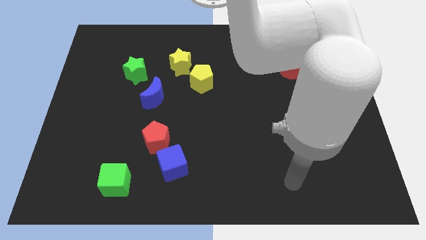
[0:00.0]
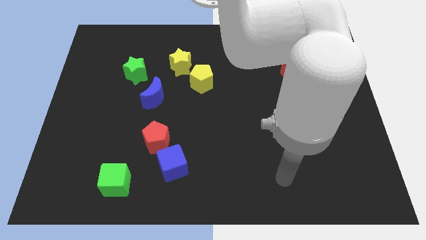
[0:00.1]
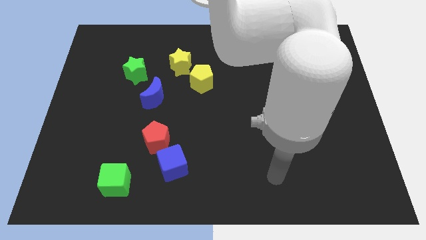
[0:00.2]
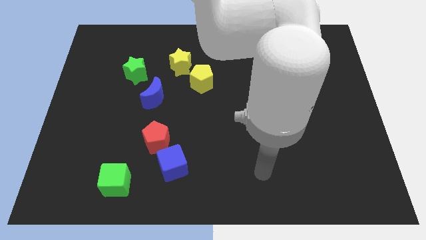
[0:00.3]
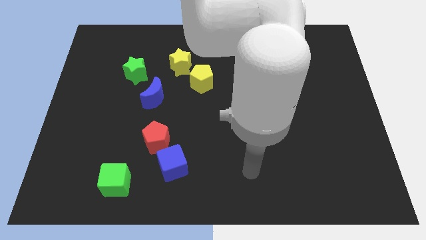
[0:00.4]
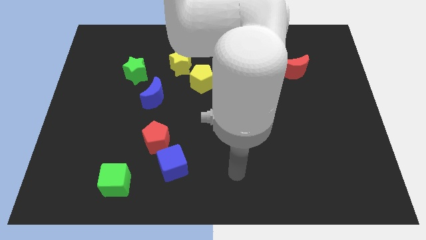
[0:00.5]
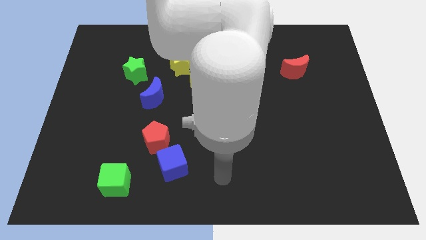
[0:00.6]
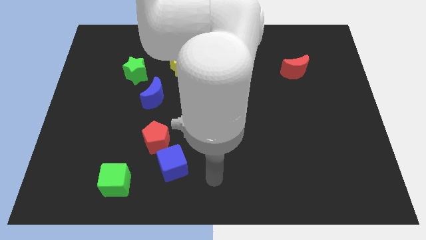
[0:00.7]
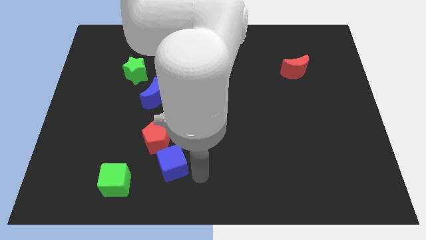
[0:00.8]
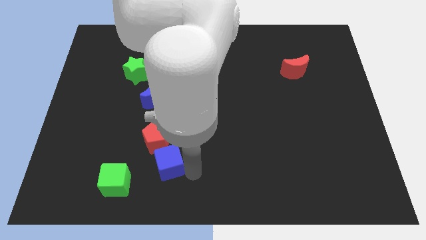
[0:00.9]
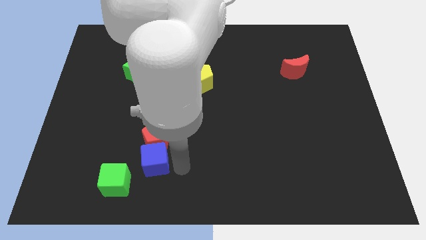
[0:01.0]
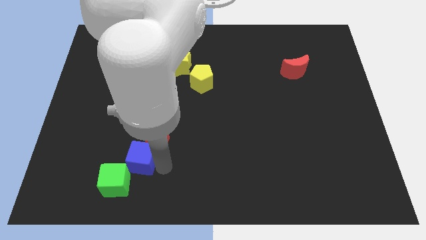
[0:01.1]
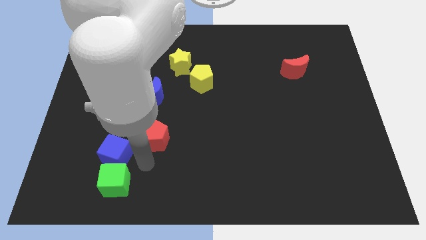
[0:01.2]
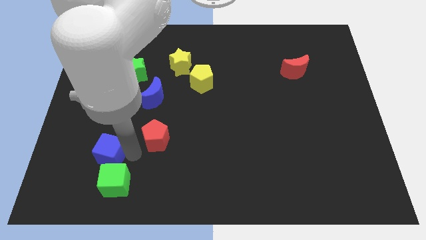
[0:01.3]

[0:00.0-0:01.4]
separate the red pentagon from the blue cube

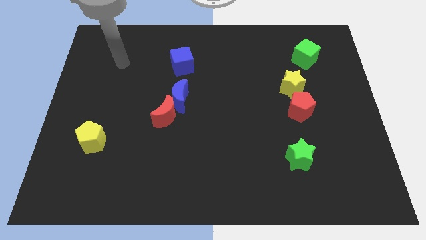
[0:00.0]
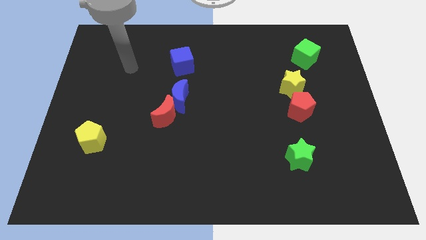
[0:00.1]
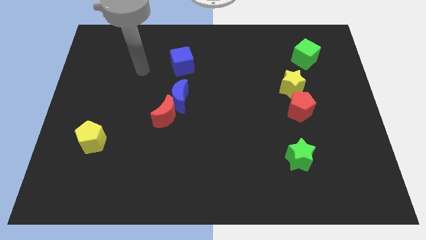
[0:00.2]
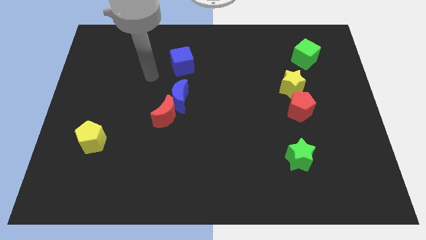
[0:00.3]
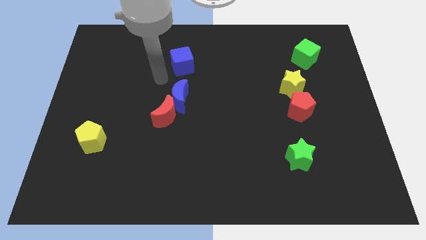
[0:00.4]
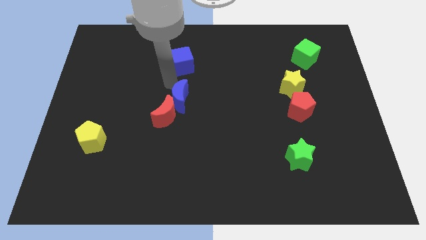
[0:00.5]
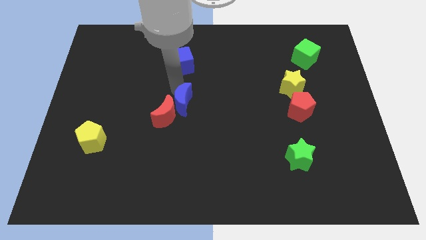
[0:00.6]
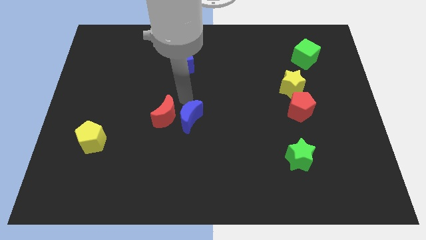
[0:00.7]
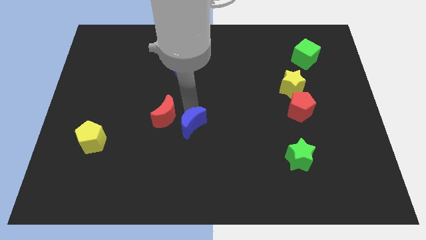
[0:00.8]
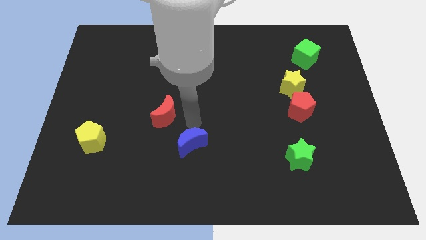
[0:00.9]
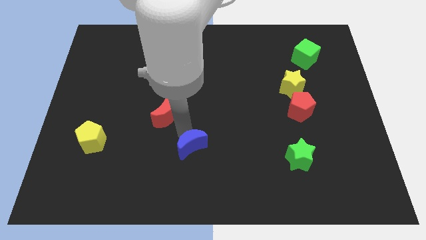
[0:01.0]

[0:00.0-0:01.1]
separate the red moon from the blue moon

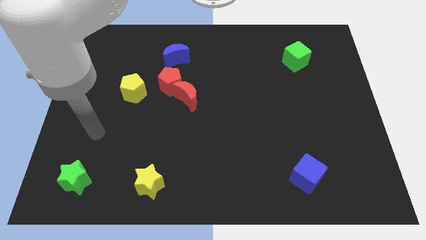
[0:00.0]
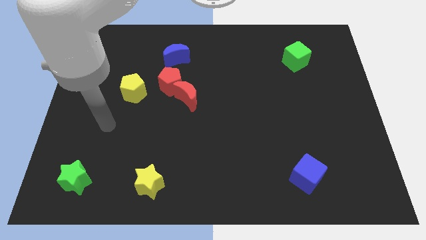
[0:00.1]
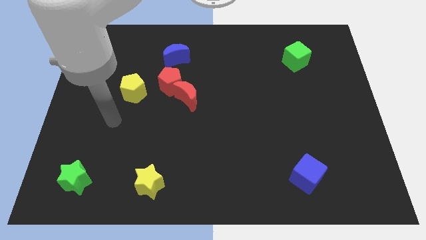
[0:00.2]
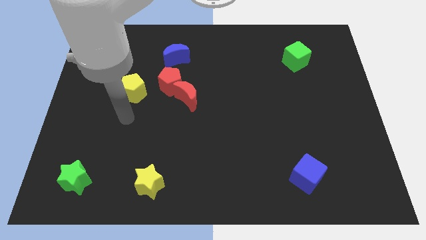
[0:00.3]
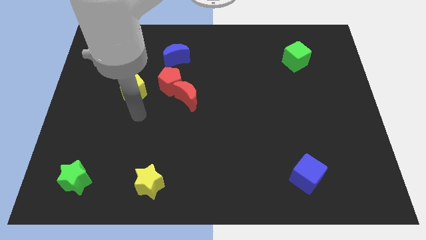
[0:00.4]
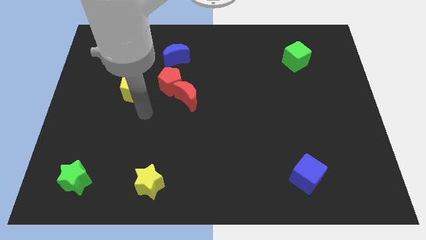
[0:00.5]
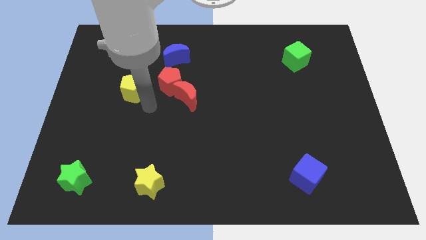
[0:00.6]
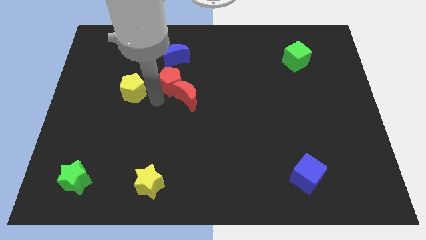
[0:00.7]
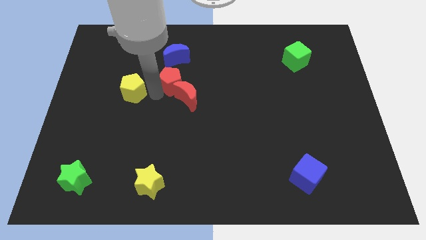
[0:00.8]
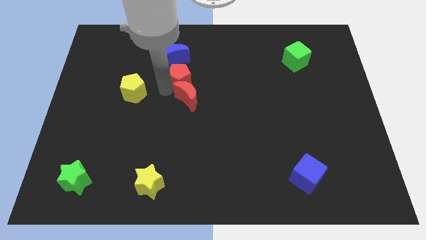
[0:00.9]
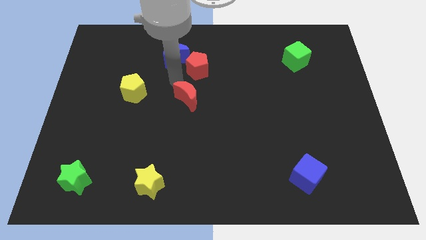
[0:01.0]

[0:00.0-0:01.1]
move the red moon away from the red pentagon

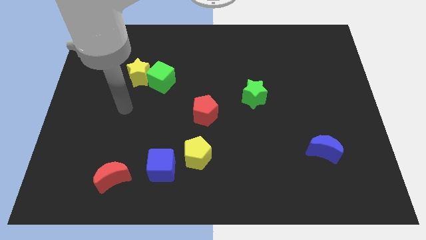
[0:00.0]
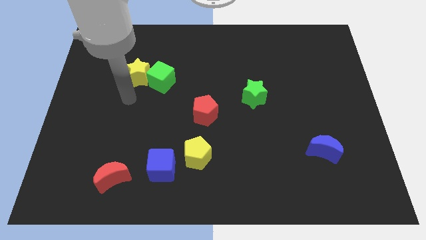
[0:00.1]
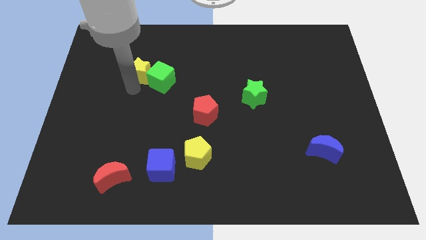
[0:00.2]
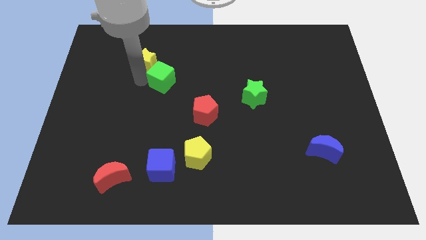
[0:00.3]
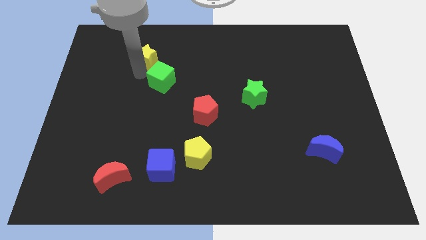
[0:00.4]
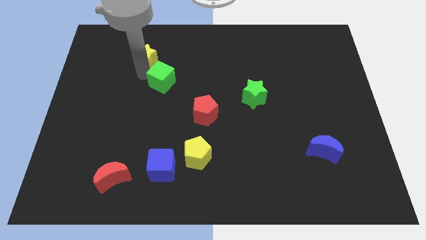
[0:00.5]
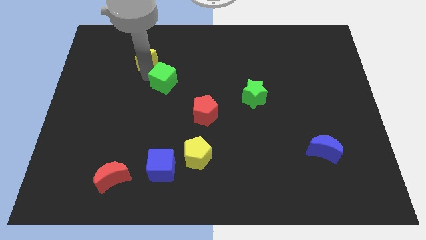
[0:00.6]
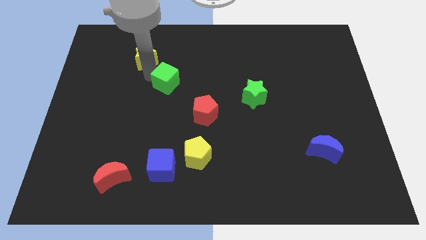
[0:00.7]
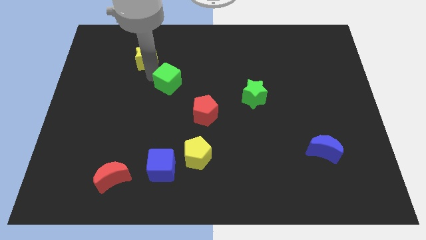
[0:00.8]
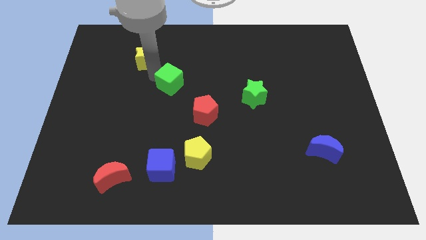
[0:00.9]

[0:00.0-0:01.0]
separate the green cube from the yellow star

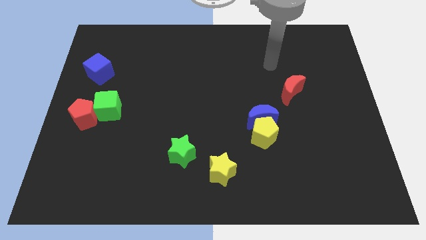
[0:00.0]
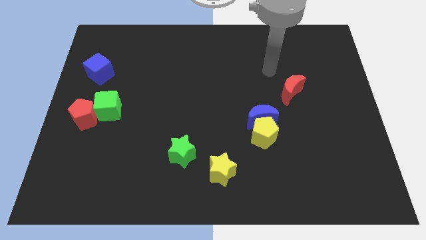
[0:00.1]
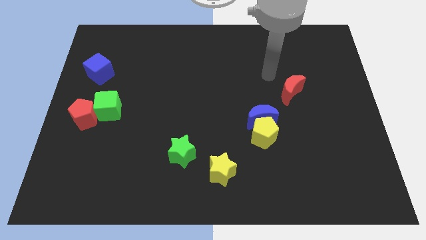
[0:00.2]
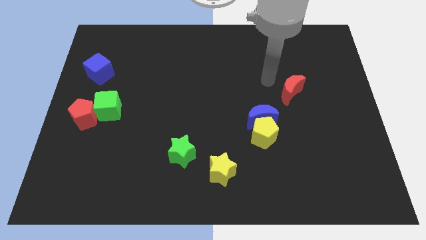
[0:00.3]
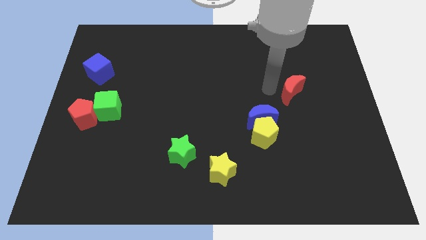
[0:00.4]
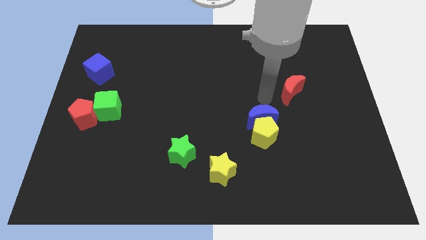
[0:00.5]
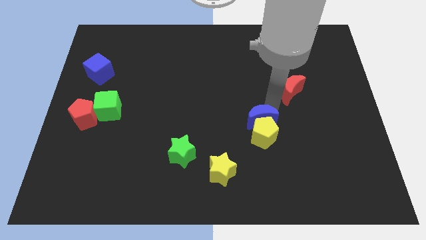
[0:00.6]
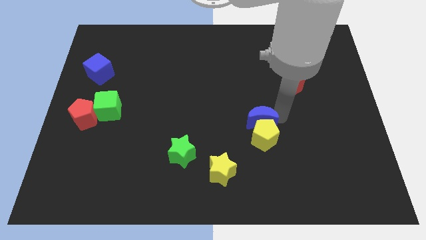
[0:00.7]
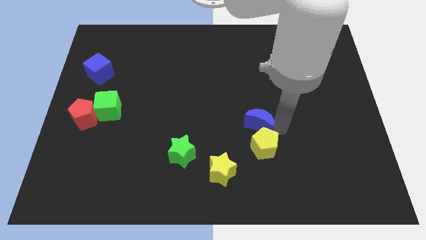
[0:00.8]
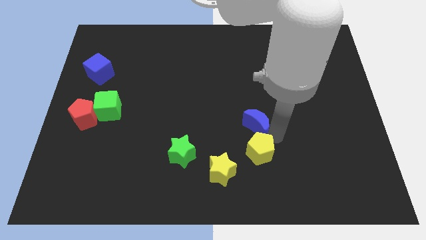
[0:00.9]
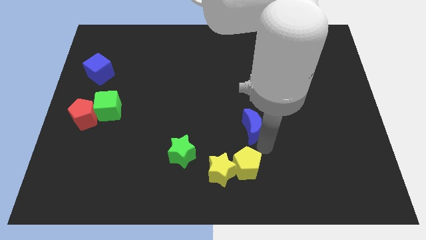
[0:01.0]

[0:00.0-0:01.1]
separate the blue moon from the yellow pentagon

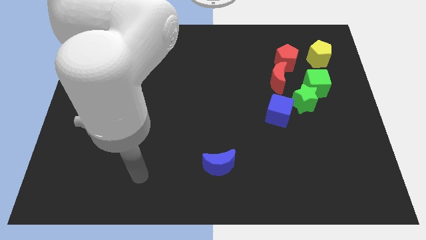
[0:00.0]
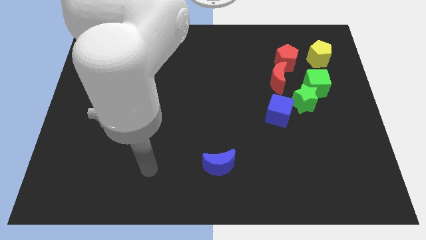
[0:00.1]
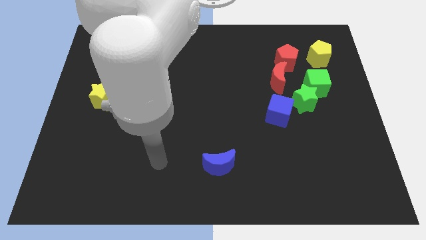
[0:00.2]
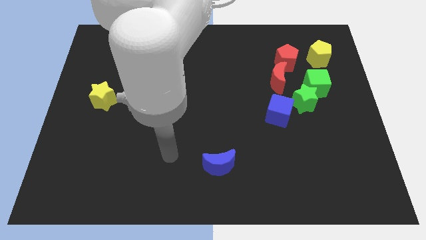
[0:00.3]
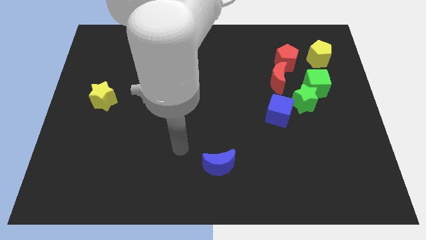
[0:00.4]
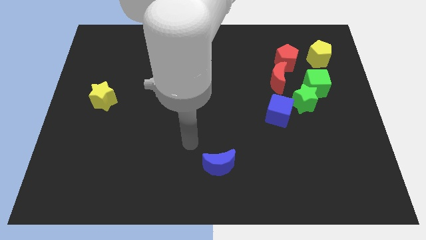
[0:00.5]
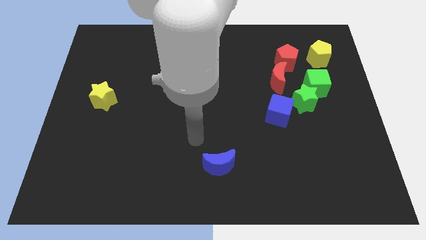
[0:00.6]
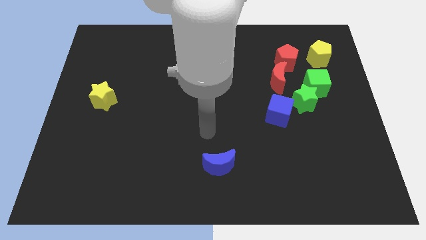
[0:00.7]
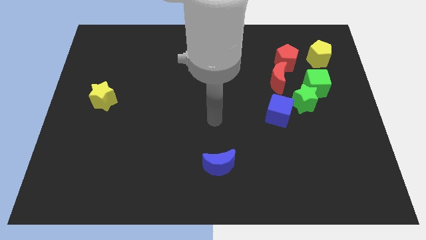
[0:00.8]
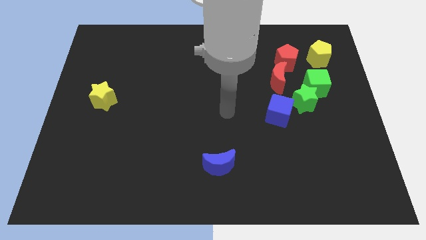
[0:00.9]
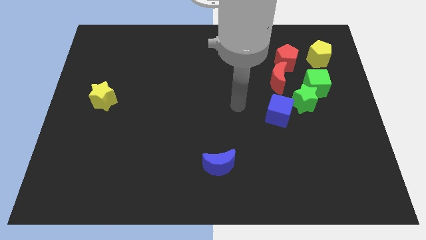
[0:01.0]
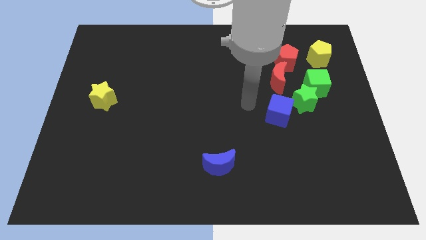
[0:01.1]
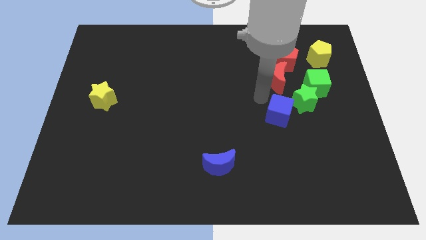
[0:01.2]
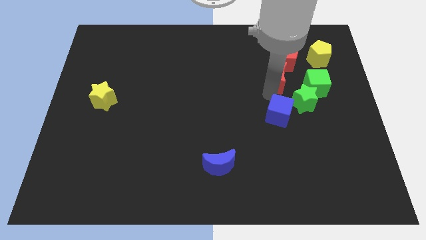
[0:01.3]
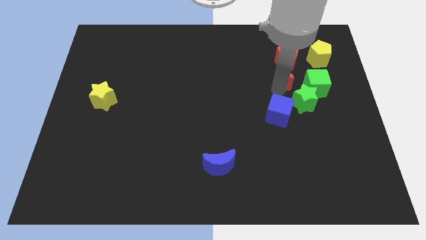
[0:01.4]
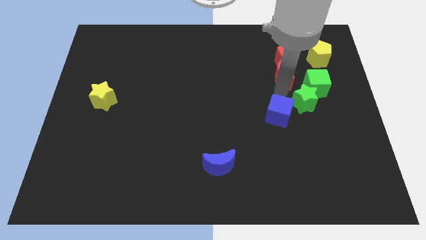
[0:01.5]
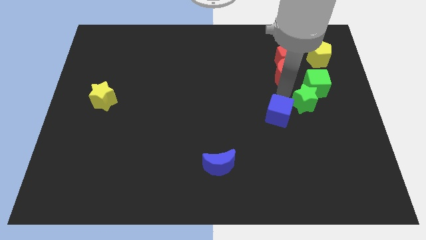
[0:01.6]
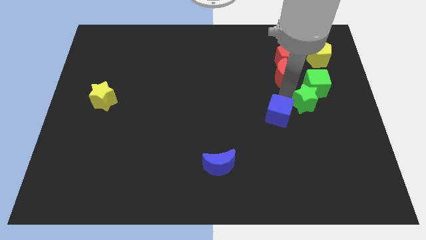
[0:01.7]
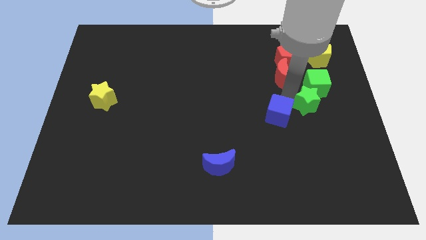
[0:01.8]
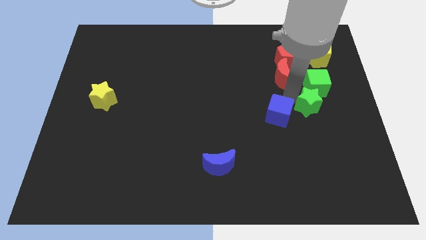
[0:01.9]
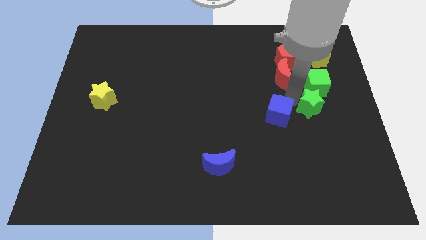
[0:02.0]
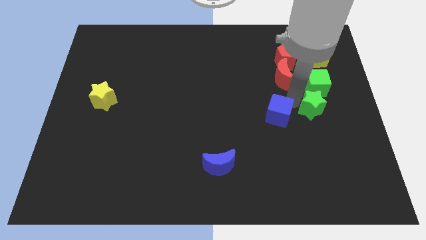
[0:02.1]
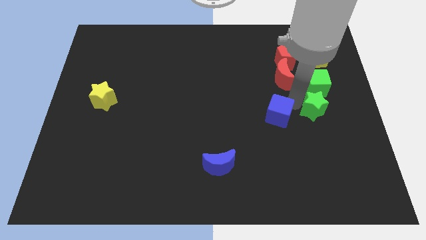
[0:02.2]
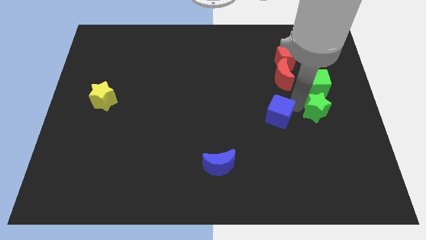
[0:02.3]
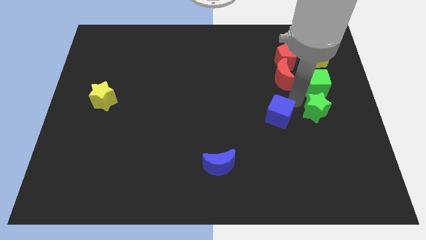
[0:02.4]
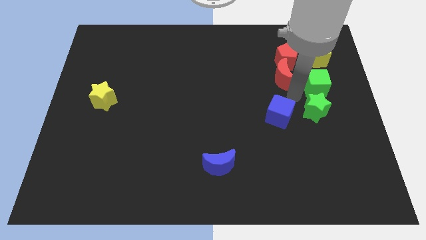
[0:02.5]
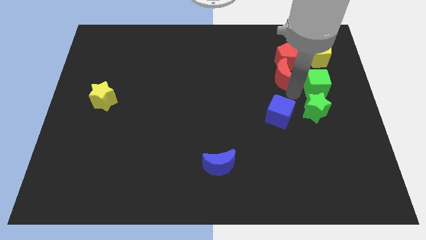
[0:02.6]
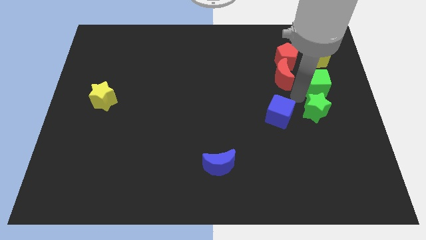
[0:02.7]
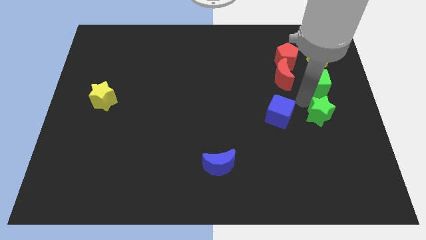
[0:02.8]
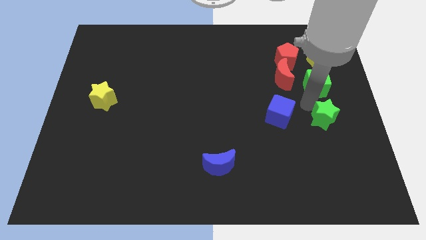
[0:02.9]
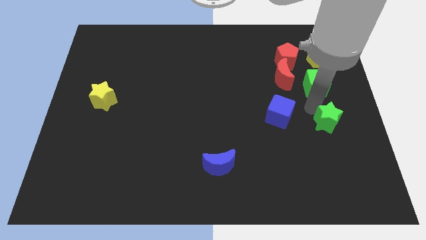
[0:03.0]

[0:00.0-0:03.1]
move the green star away from the green cube, blue cube, and red moon

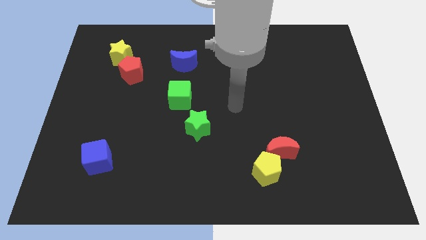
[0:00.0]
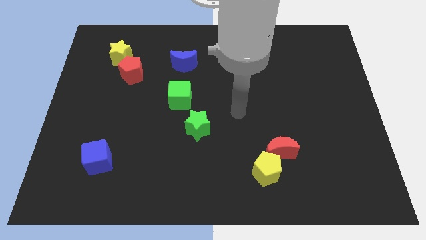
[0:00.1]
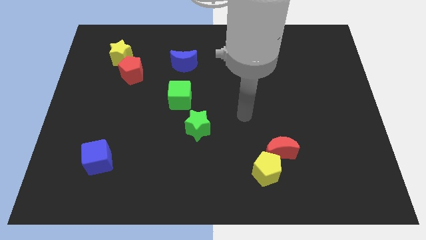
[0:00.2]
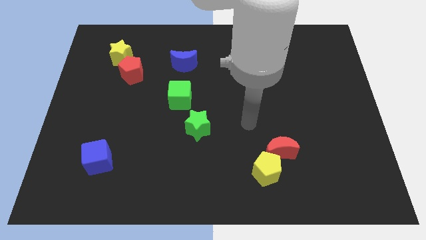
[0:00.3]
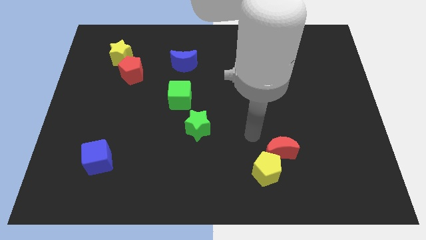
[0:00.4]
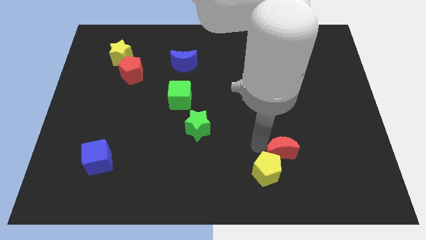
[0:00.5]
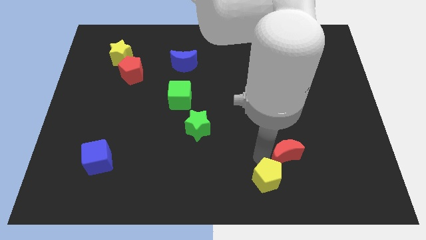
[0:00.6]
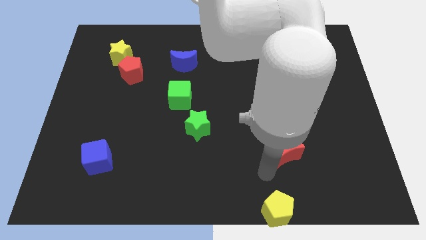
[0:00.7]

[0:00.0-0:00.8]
pull the red moon apart from the yellow pentagon
